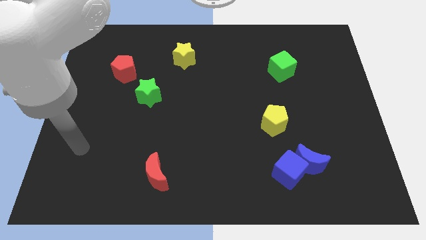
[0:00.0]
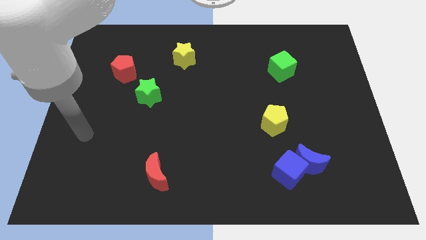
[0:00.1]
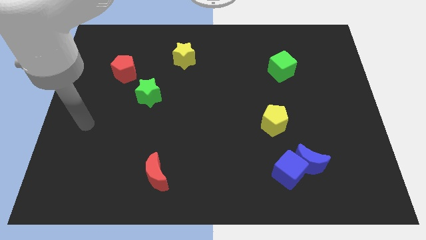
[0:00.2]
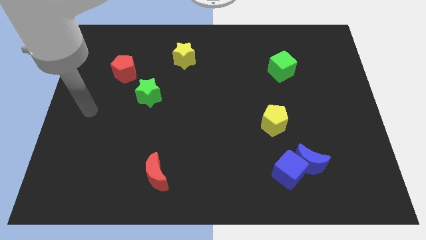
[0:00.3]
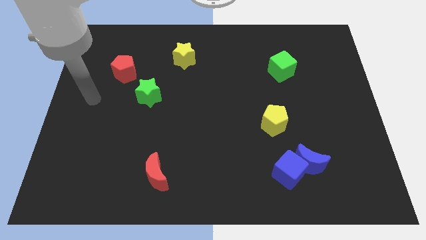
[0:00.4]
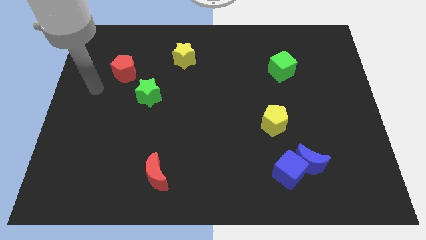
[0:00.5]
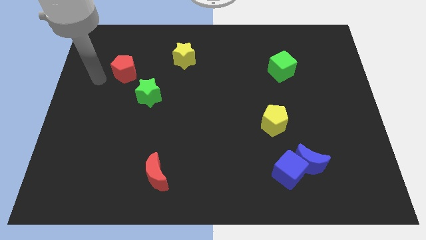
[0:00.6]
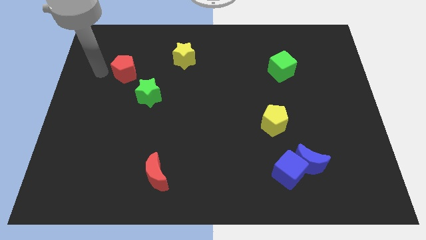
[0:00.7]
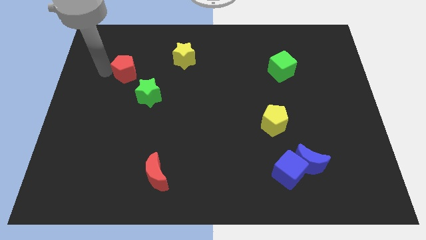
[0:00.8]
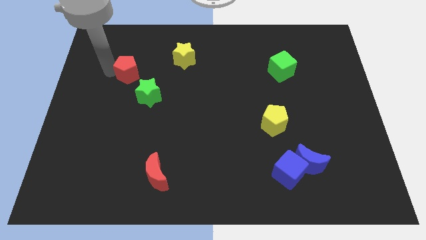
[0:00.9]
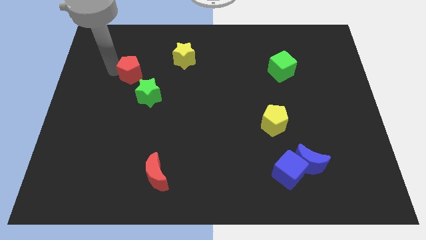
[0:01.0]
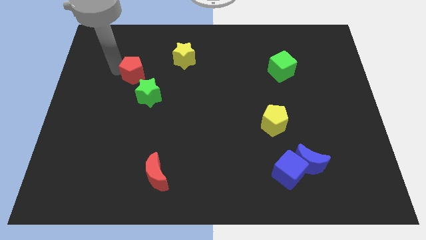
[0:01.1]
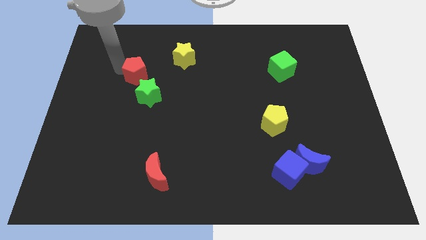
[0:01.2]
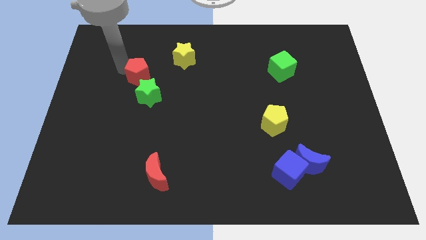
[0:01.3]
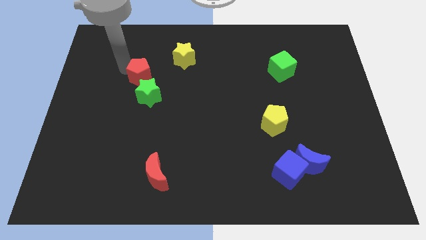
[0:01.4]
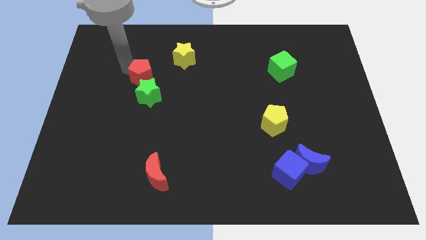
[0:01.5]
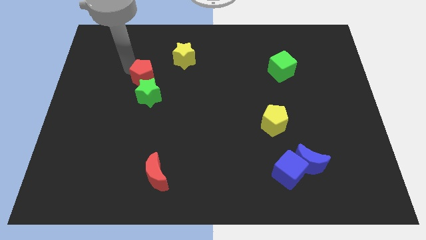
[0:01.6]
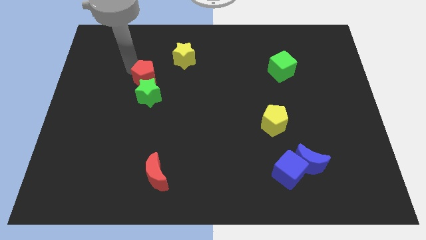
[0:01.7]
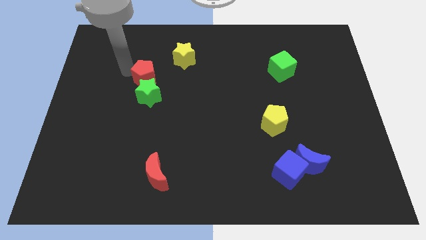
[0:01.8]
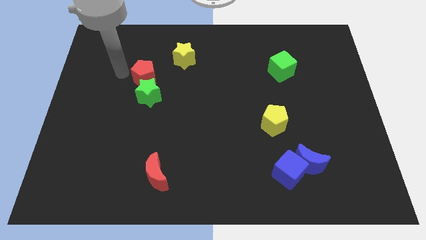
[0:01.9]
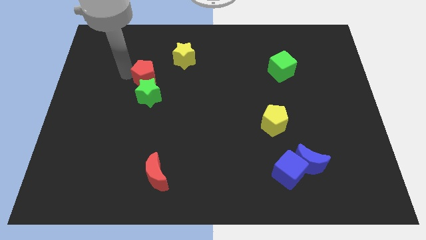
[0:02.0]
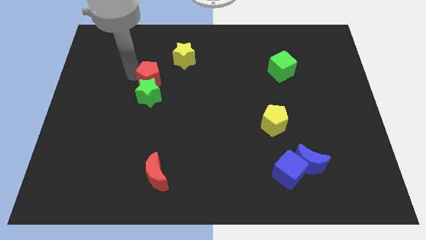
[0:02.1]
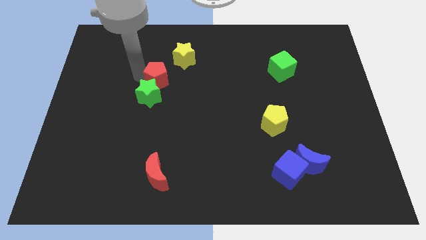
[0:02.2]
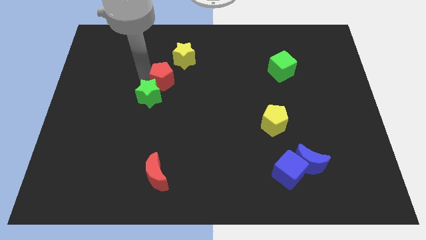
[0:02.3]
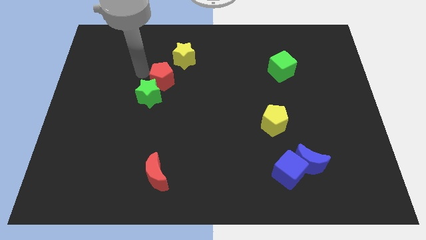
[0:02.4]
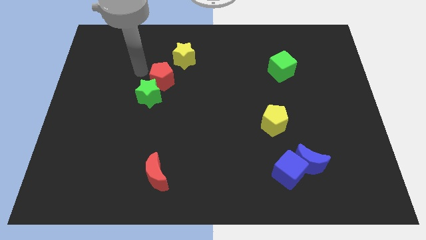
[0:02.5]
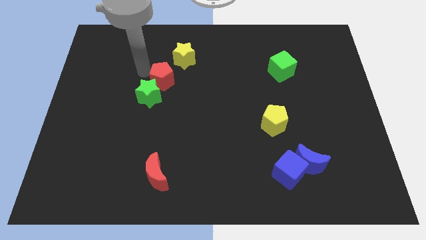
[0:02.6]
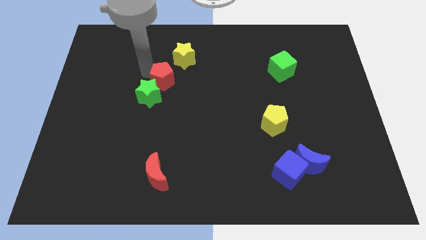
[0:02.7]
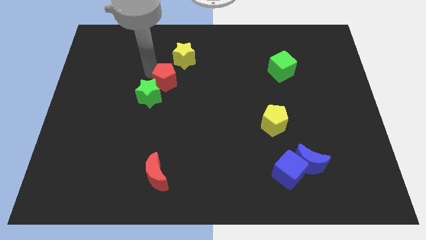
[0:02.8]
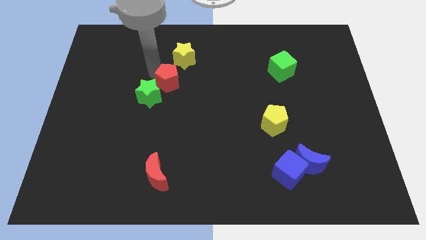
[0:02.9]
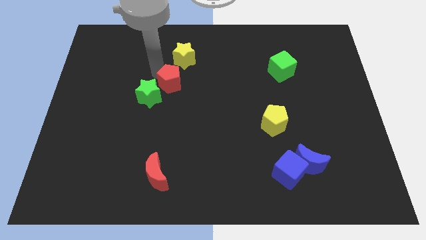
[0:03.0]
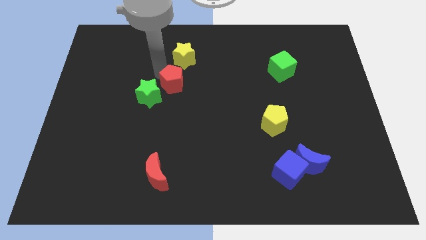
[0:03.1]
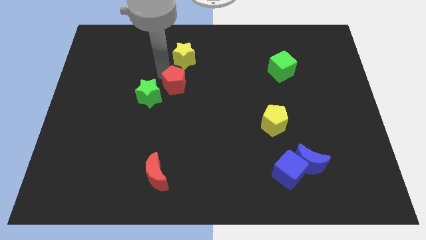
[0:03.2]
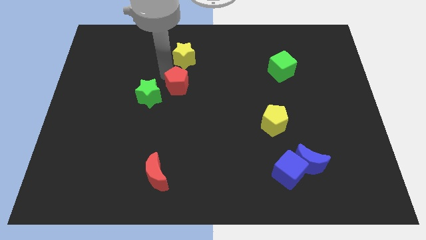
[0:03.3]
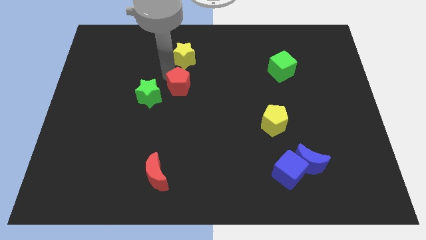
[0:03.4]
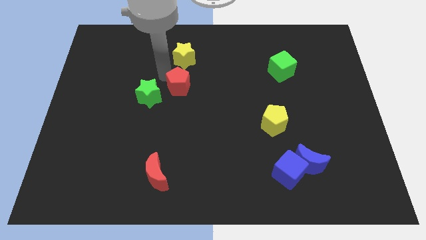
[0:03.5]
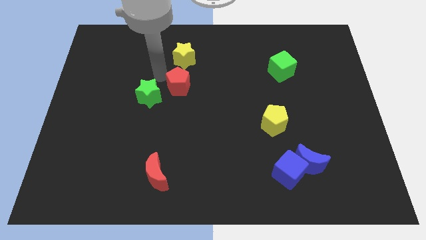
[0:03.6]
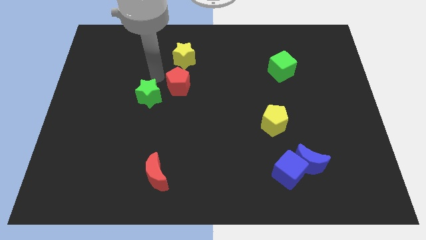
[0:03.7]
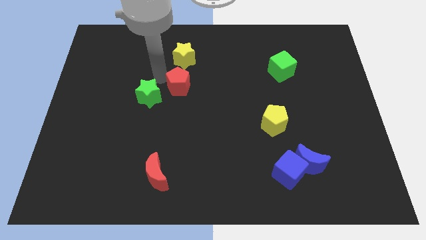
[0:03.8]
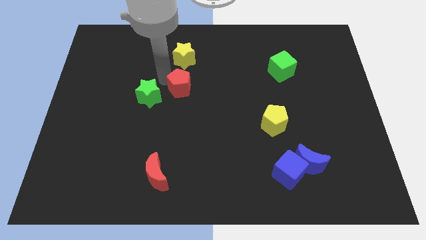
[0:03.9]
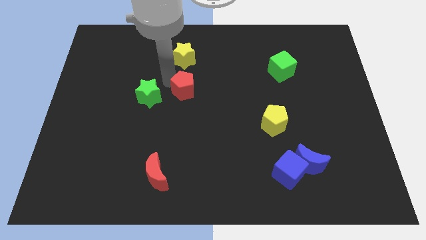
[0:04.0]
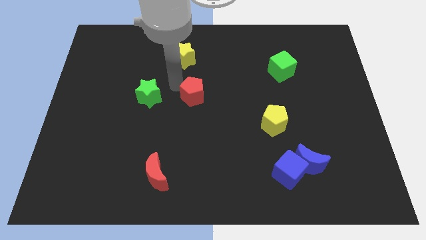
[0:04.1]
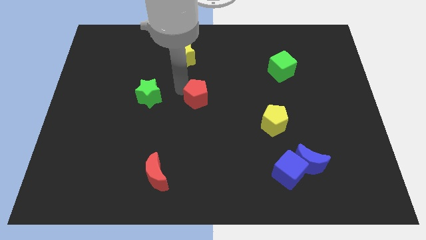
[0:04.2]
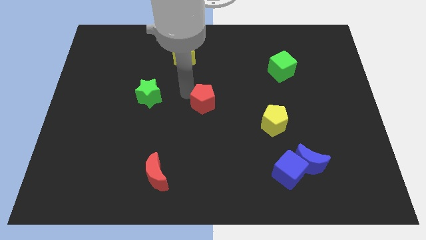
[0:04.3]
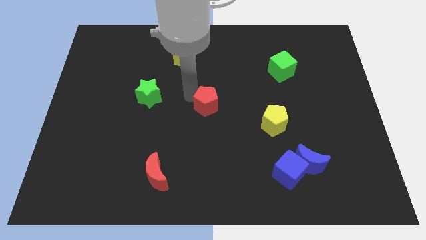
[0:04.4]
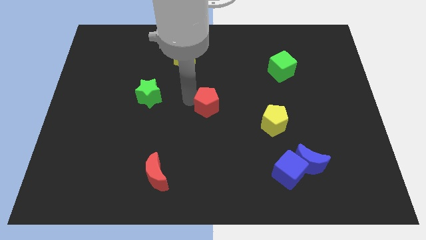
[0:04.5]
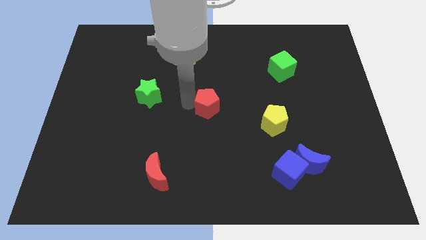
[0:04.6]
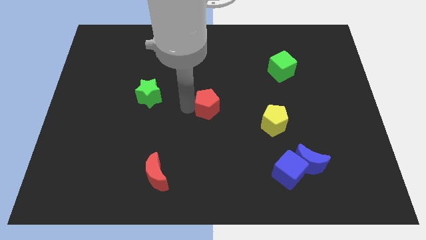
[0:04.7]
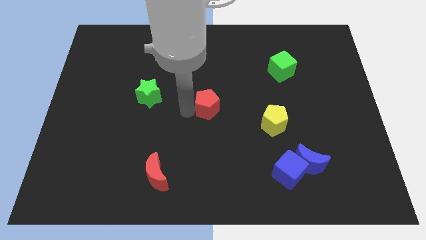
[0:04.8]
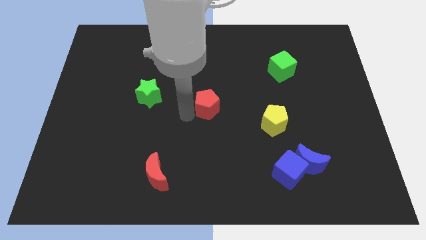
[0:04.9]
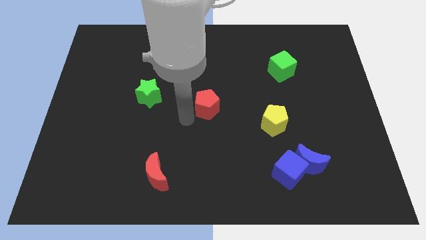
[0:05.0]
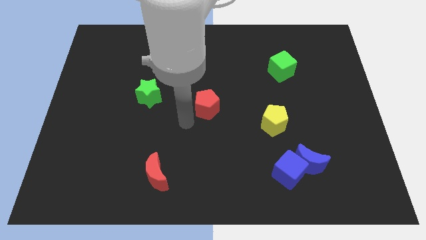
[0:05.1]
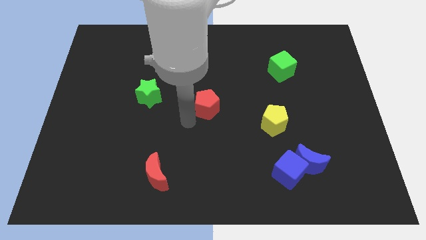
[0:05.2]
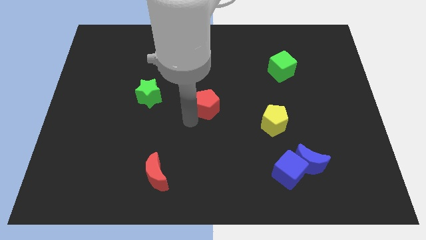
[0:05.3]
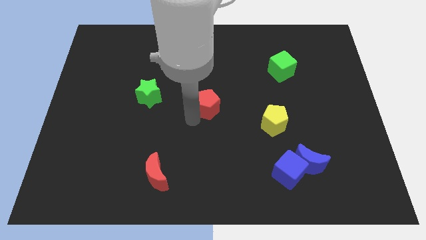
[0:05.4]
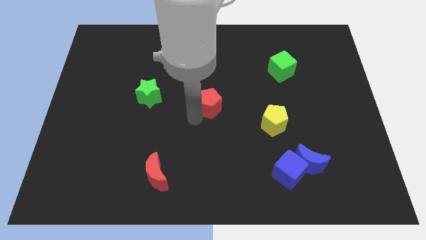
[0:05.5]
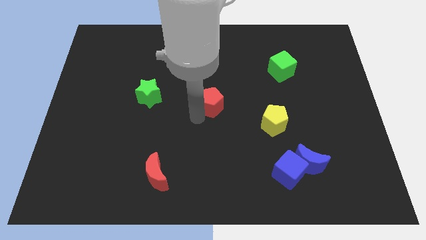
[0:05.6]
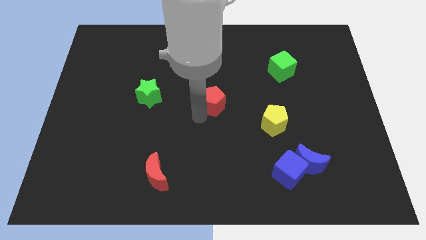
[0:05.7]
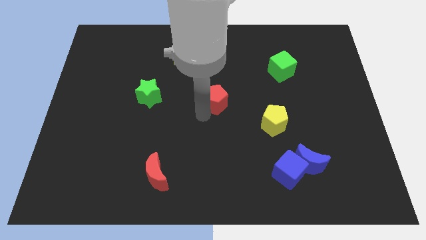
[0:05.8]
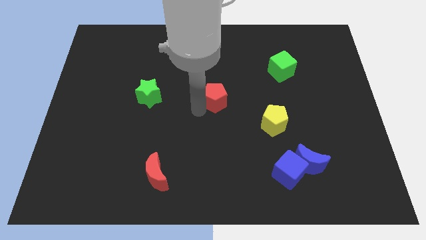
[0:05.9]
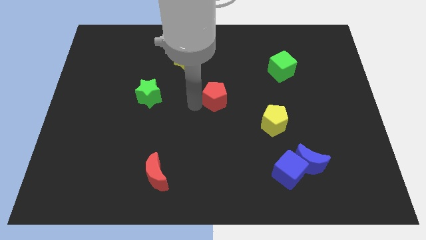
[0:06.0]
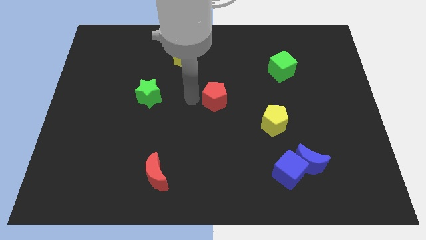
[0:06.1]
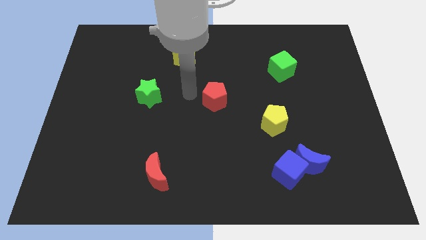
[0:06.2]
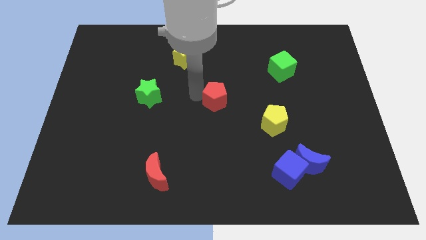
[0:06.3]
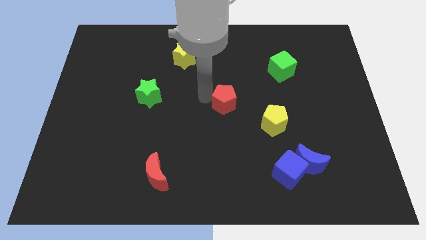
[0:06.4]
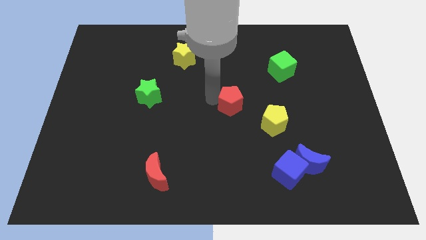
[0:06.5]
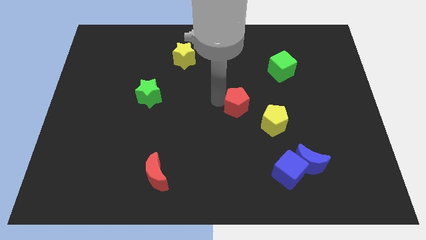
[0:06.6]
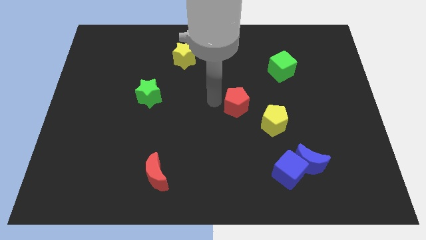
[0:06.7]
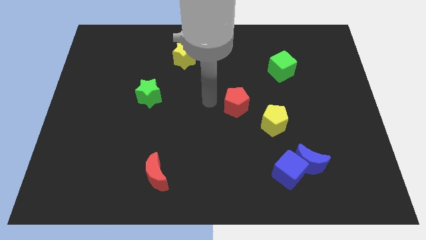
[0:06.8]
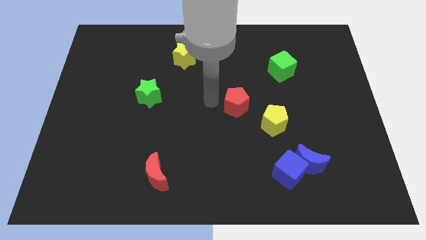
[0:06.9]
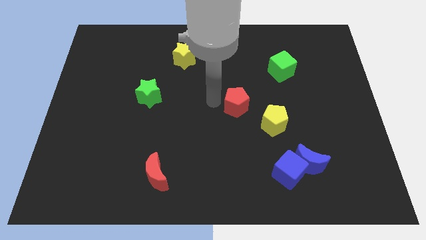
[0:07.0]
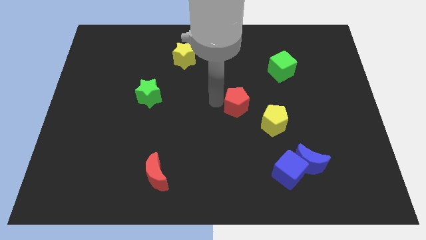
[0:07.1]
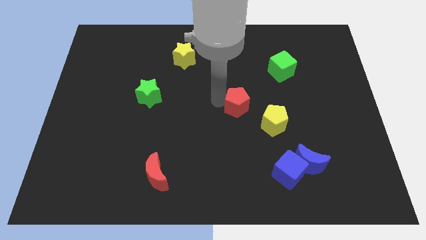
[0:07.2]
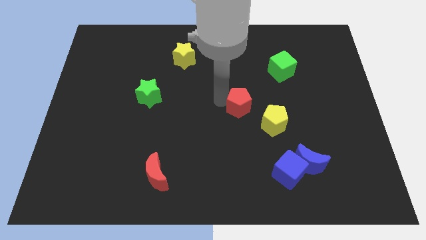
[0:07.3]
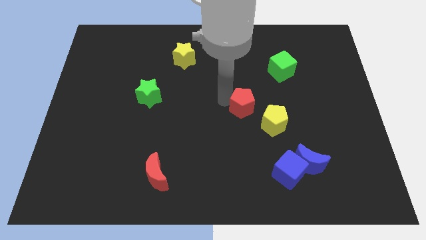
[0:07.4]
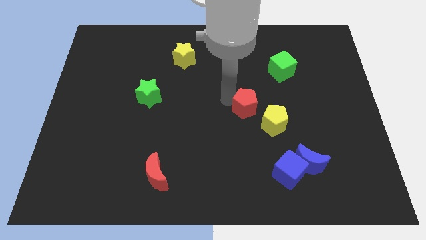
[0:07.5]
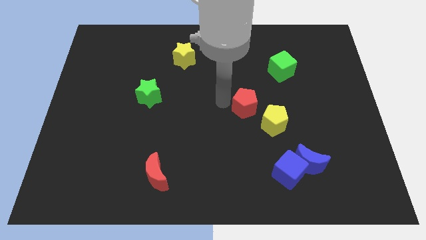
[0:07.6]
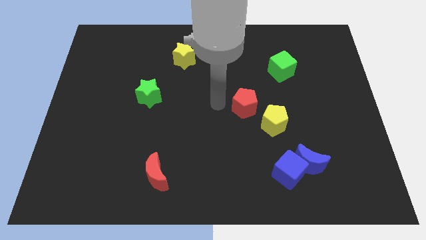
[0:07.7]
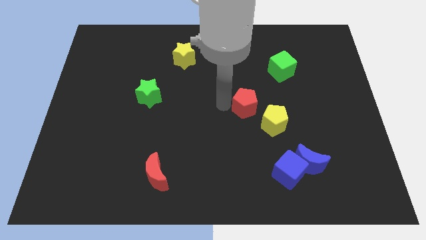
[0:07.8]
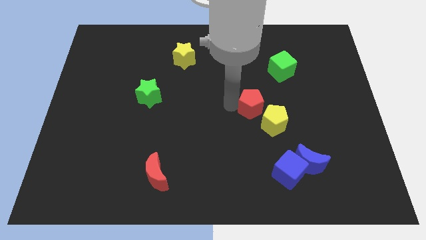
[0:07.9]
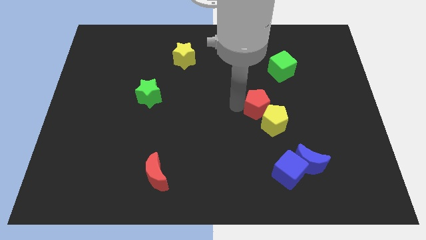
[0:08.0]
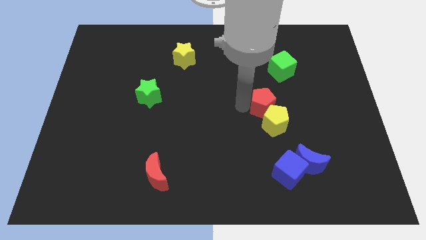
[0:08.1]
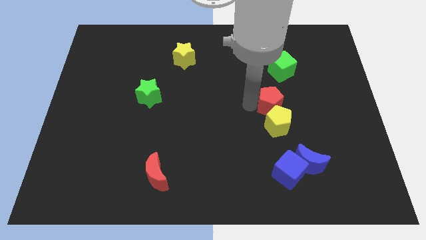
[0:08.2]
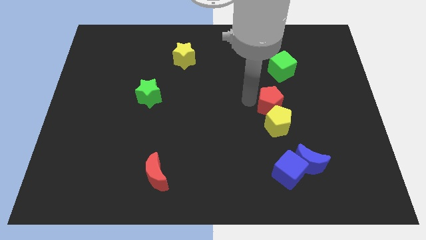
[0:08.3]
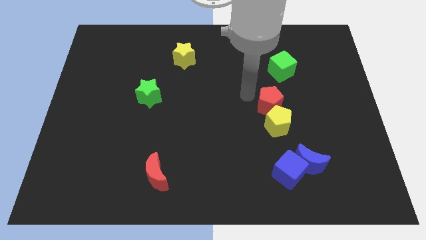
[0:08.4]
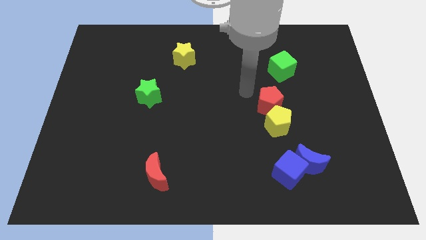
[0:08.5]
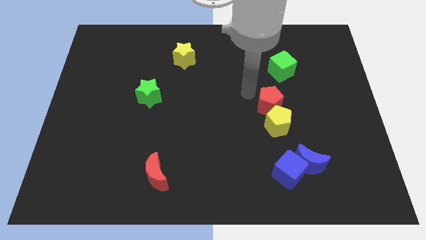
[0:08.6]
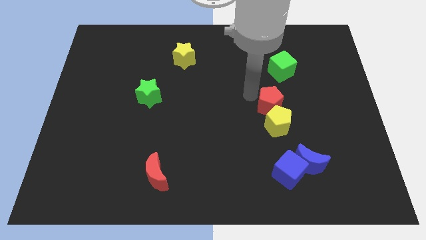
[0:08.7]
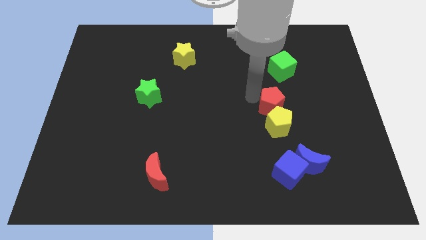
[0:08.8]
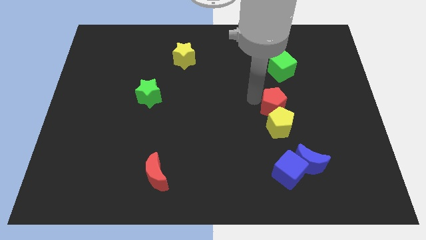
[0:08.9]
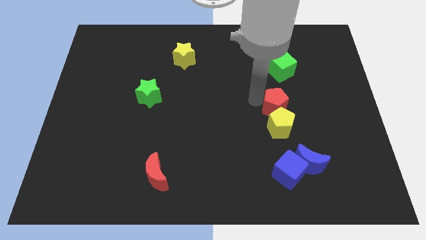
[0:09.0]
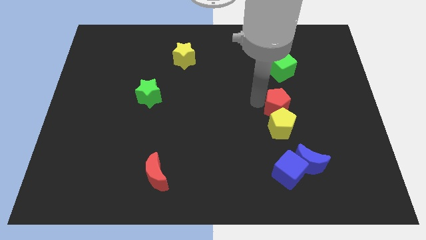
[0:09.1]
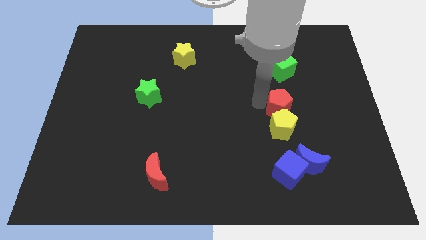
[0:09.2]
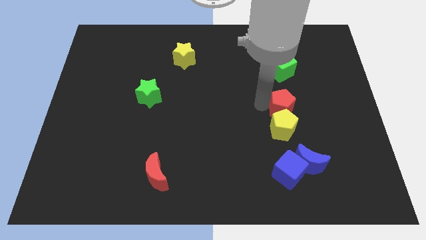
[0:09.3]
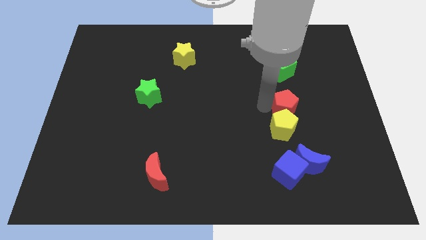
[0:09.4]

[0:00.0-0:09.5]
put the red pentagon above the blue moon
